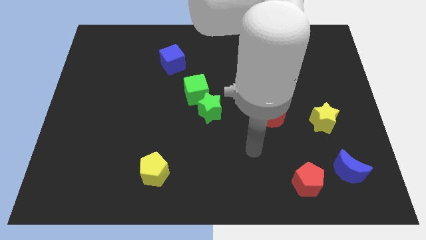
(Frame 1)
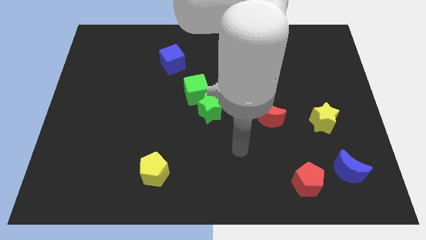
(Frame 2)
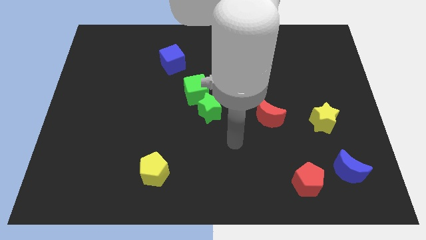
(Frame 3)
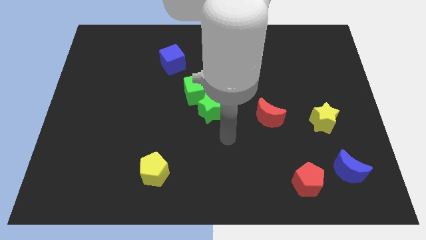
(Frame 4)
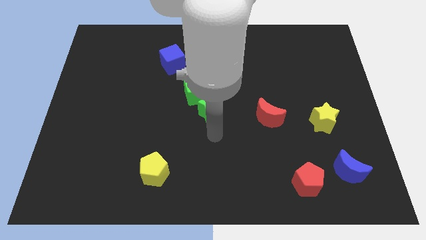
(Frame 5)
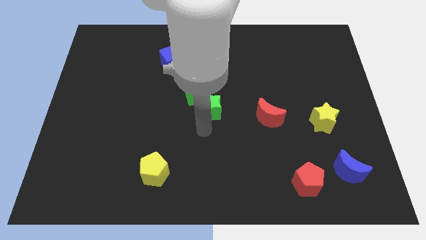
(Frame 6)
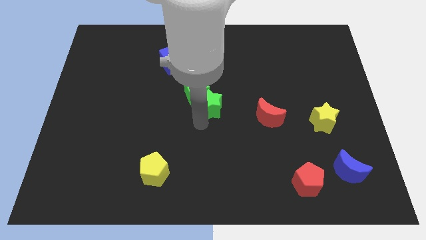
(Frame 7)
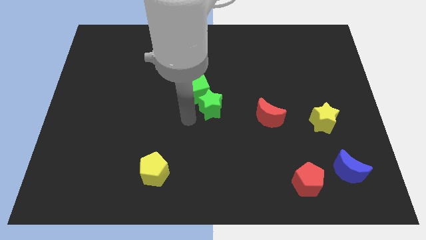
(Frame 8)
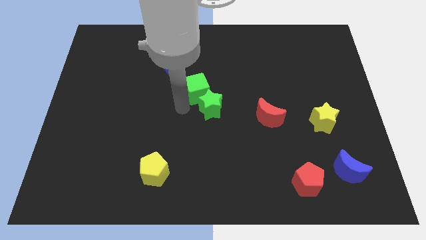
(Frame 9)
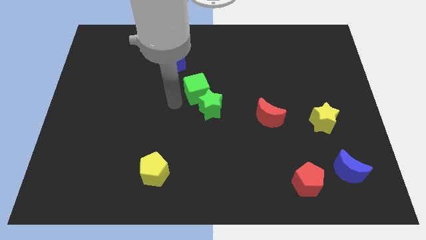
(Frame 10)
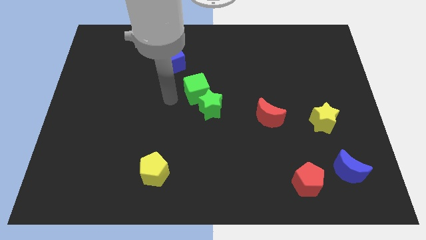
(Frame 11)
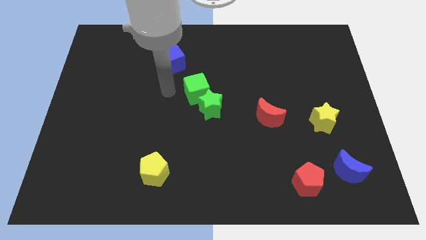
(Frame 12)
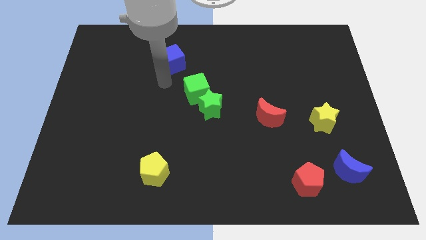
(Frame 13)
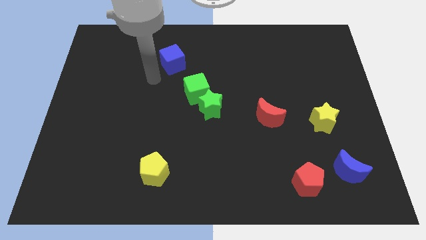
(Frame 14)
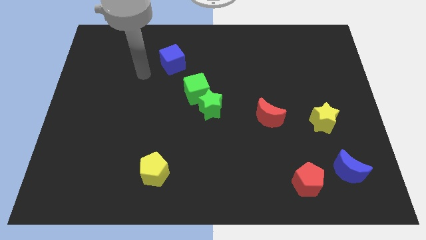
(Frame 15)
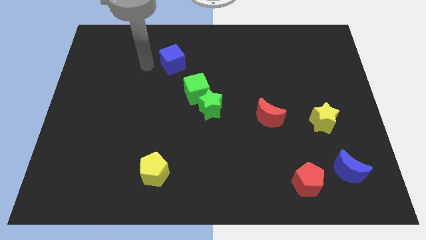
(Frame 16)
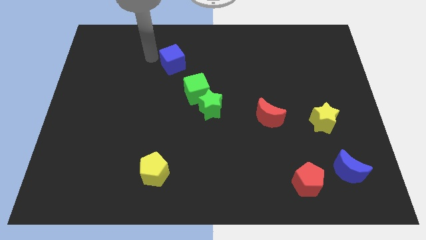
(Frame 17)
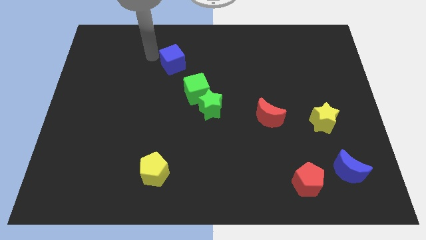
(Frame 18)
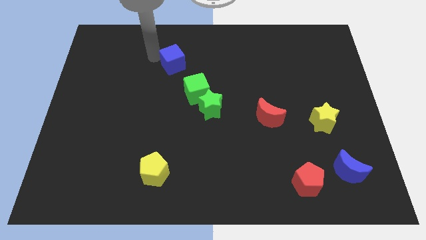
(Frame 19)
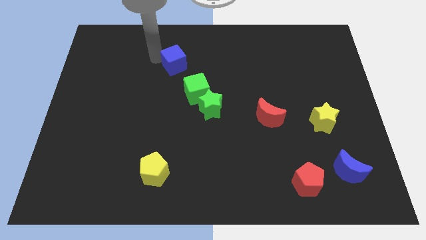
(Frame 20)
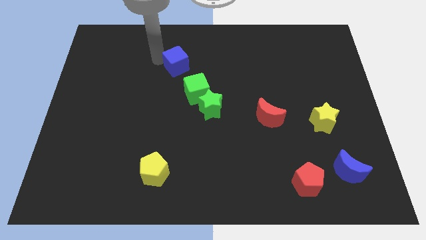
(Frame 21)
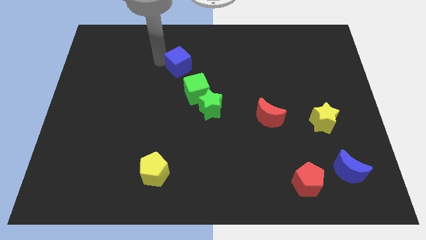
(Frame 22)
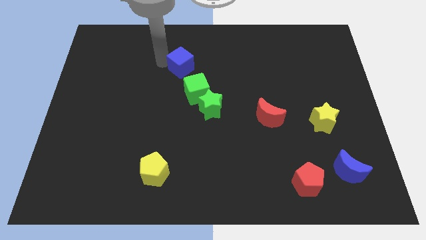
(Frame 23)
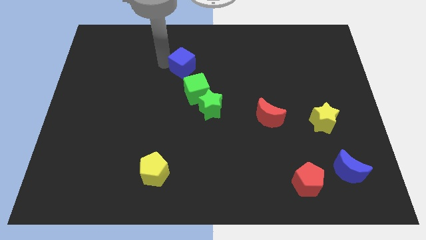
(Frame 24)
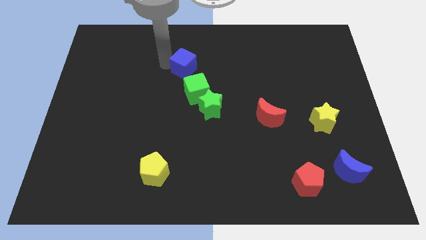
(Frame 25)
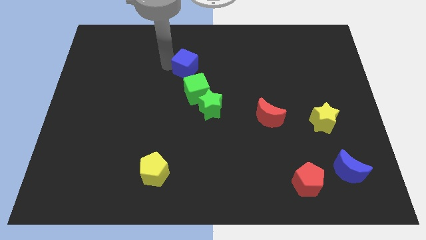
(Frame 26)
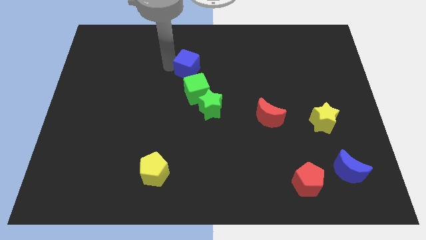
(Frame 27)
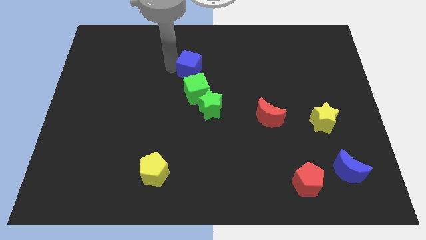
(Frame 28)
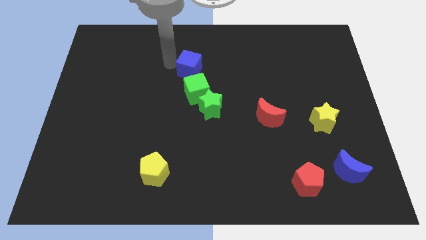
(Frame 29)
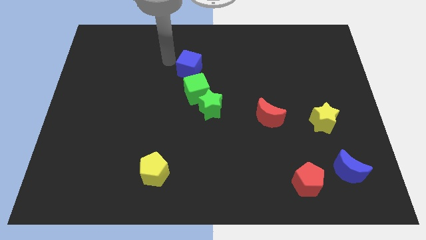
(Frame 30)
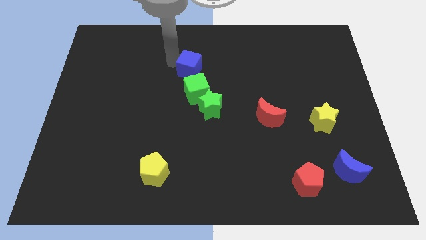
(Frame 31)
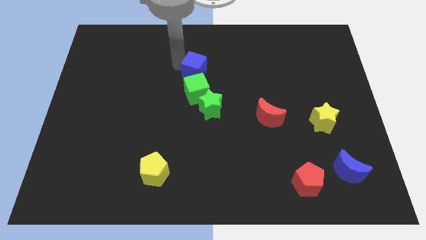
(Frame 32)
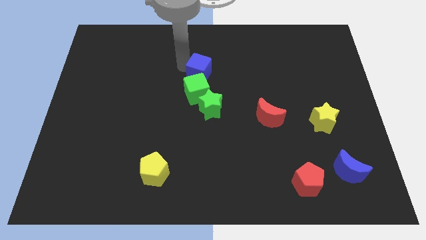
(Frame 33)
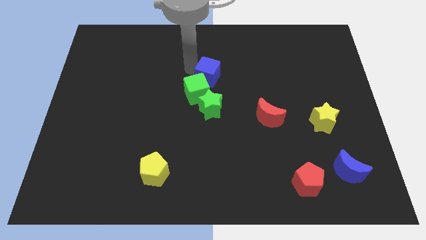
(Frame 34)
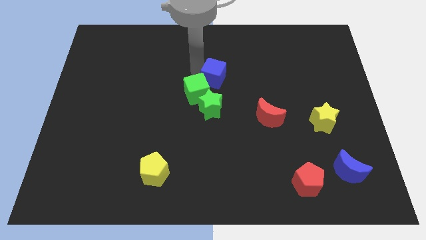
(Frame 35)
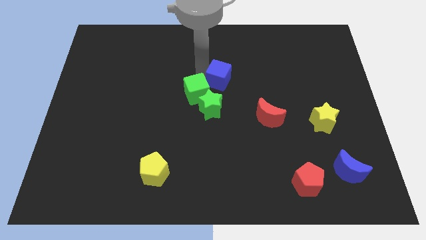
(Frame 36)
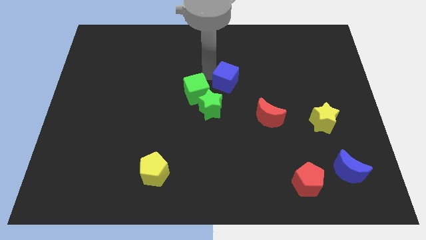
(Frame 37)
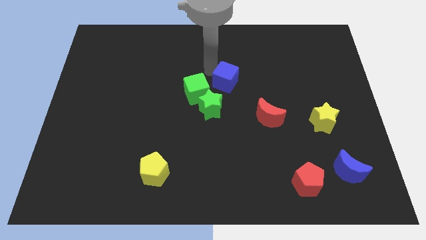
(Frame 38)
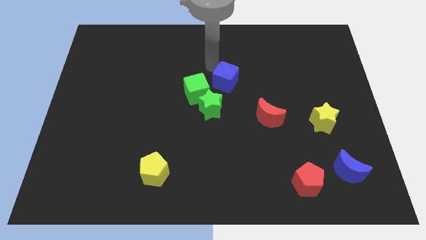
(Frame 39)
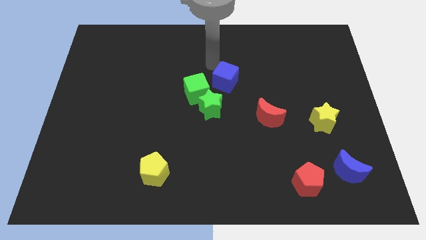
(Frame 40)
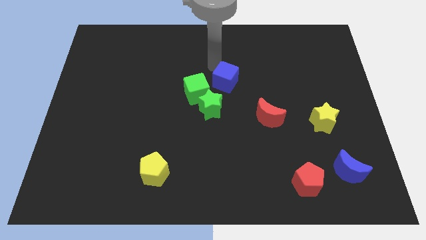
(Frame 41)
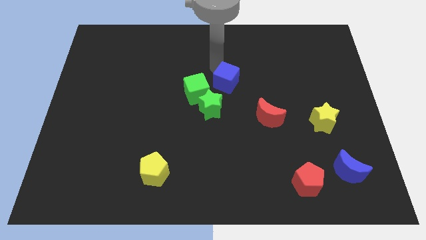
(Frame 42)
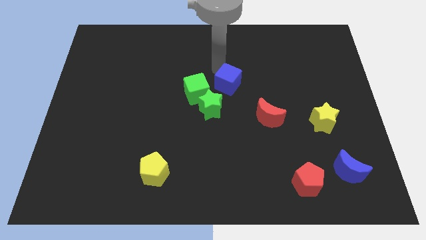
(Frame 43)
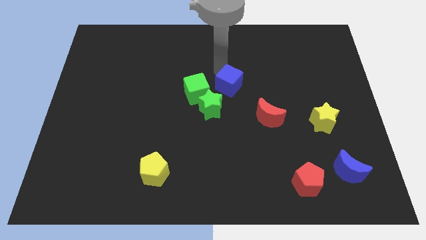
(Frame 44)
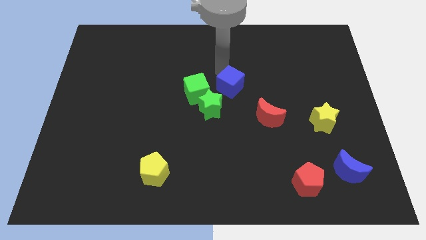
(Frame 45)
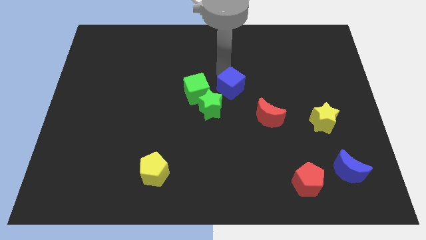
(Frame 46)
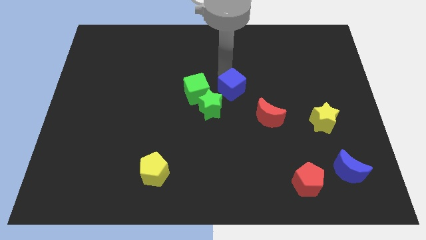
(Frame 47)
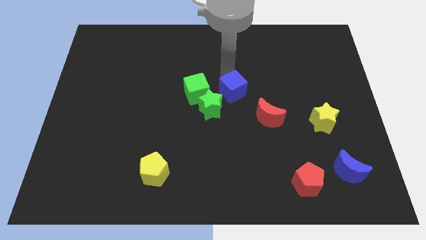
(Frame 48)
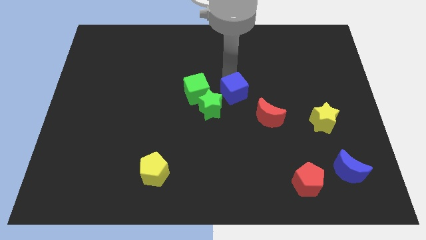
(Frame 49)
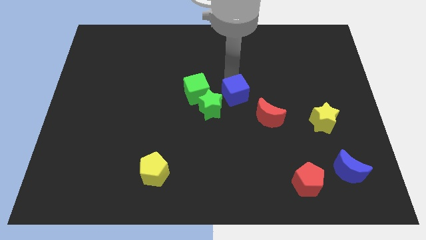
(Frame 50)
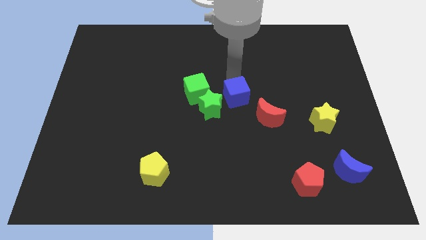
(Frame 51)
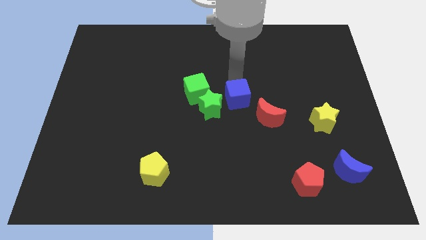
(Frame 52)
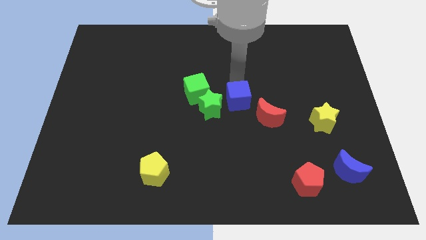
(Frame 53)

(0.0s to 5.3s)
push the blue cube down and then to the right

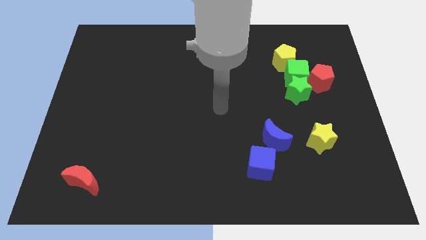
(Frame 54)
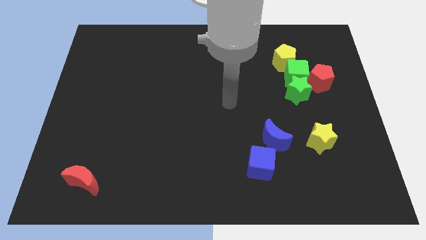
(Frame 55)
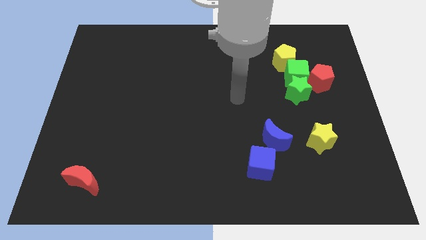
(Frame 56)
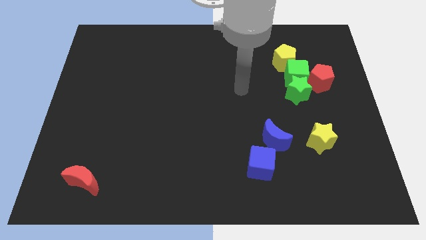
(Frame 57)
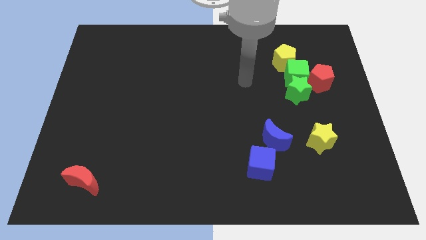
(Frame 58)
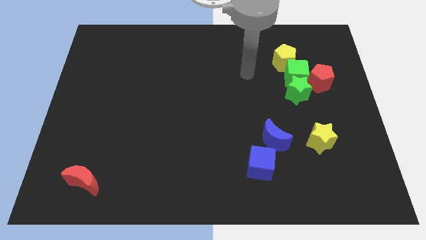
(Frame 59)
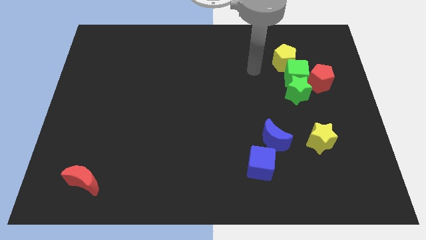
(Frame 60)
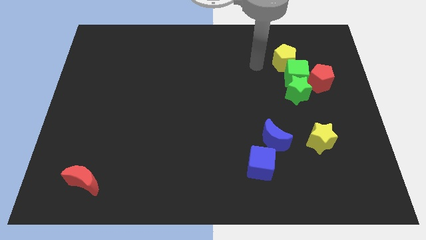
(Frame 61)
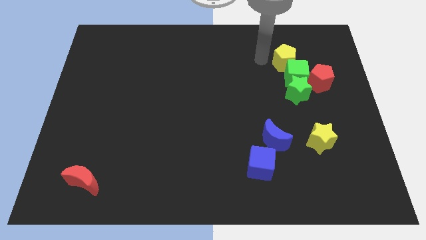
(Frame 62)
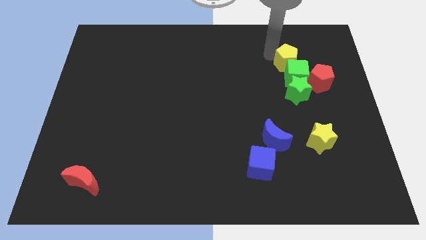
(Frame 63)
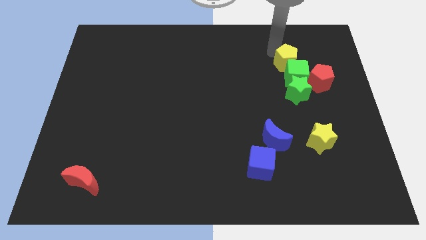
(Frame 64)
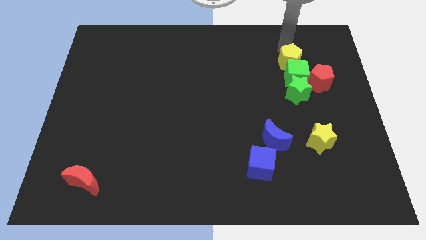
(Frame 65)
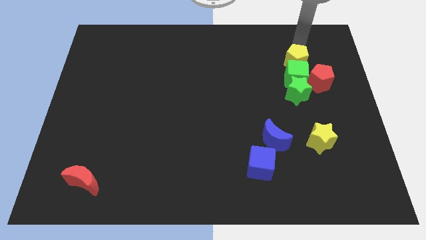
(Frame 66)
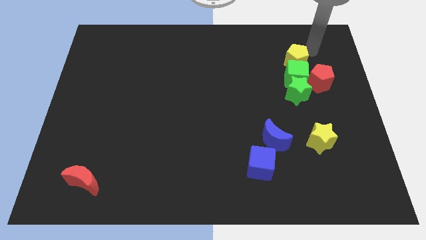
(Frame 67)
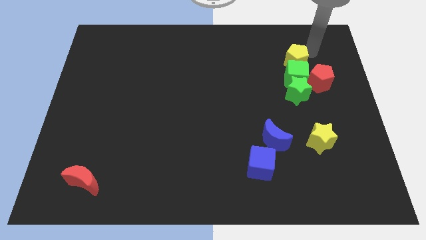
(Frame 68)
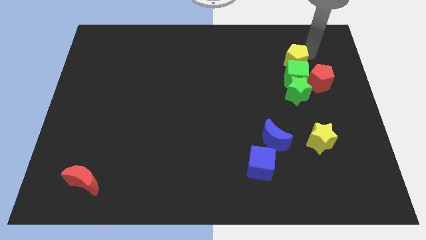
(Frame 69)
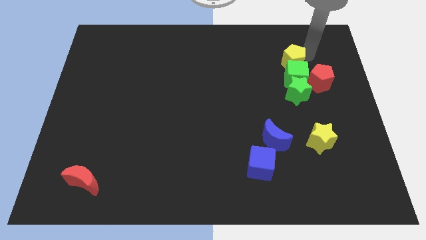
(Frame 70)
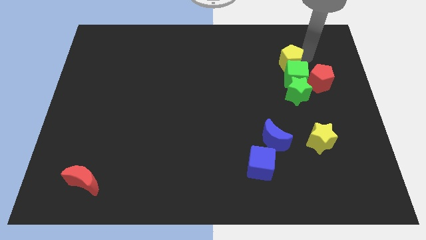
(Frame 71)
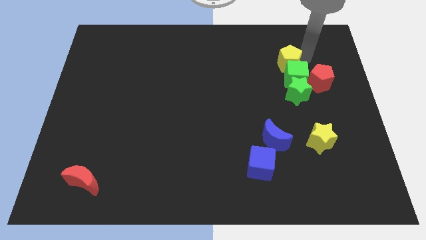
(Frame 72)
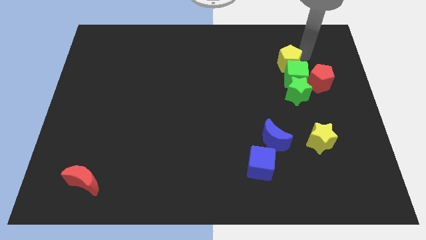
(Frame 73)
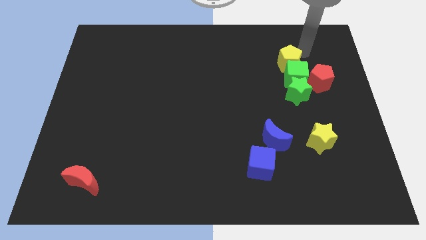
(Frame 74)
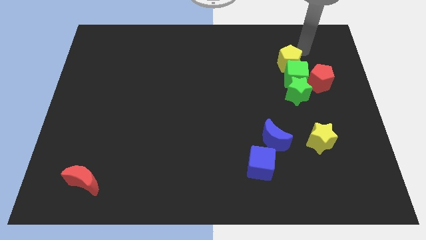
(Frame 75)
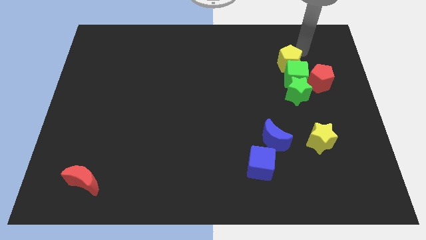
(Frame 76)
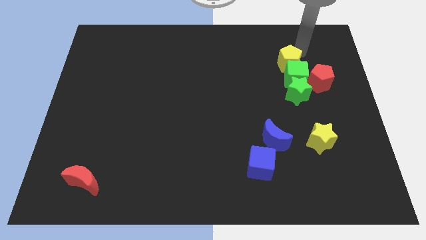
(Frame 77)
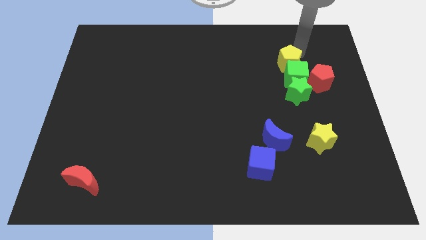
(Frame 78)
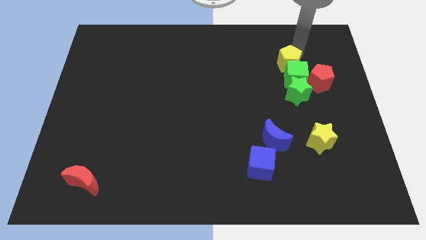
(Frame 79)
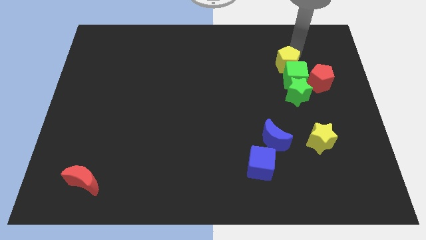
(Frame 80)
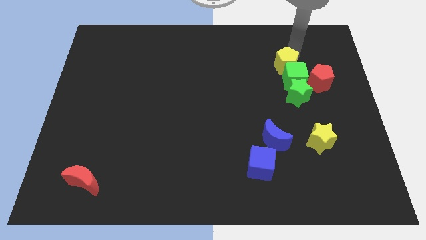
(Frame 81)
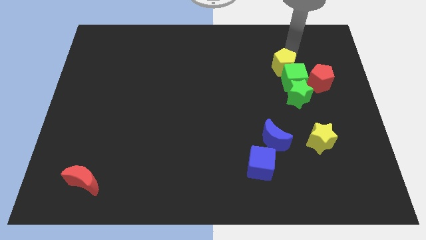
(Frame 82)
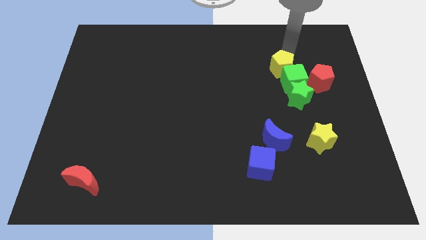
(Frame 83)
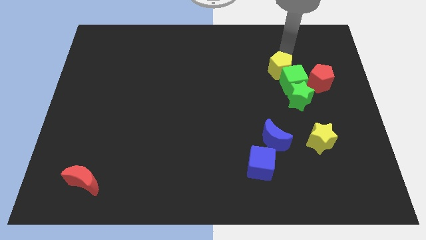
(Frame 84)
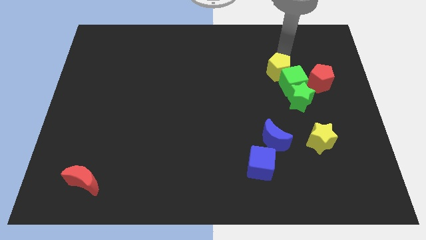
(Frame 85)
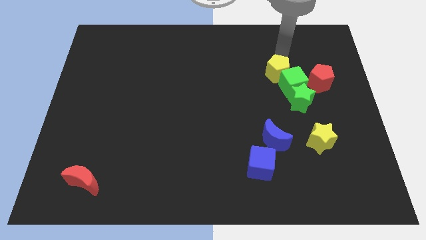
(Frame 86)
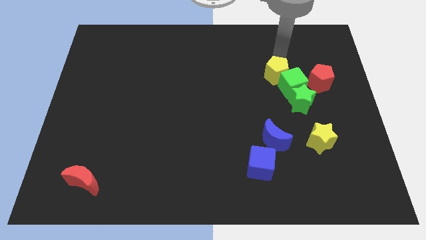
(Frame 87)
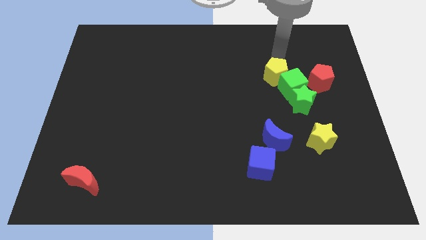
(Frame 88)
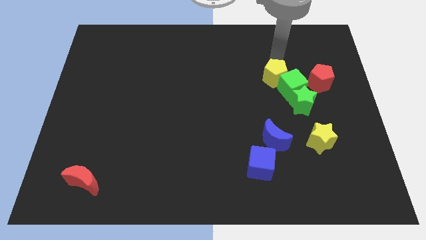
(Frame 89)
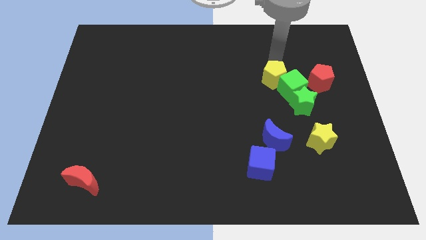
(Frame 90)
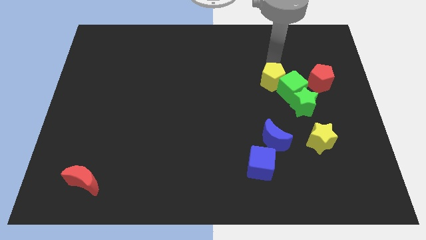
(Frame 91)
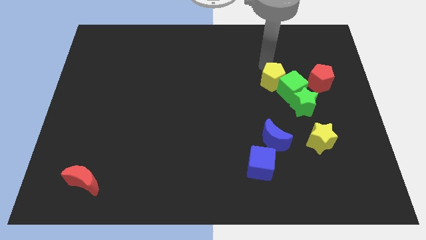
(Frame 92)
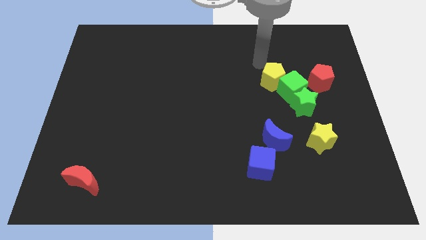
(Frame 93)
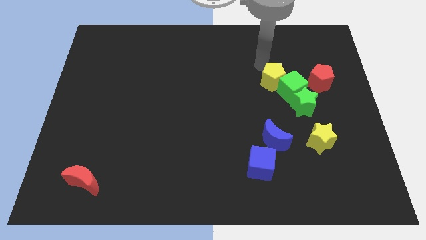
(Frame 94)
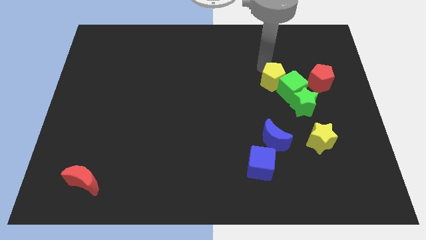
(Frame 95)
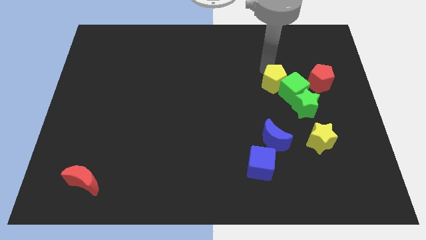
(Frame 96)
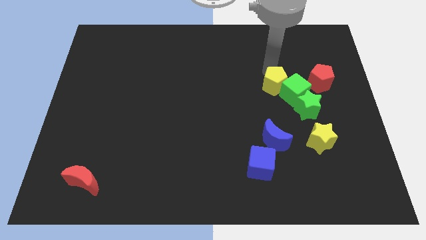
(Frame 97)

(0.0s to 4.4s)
move the yellow pentagon downwards a bit
